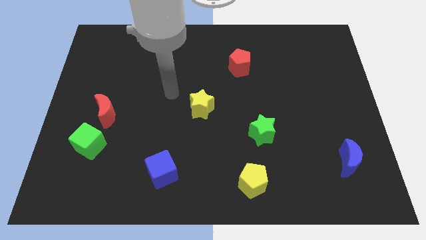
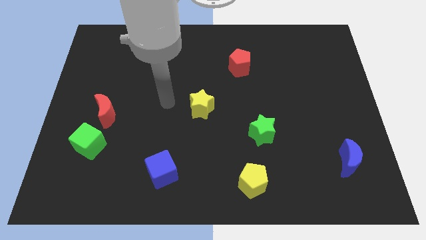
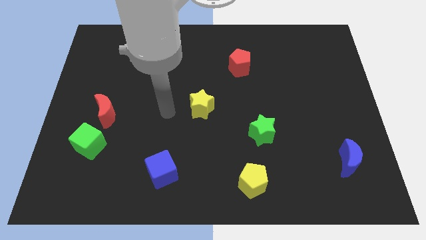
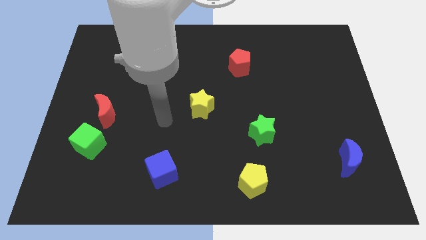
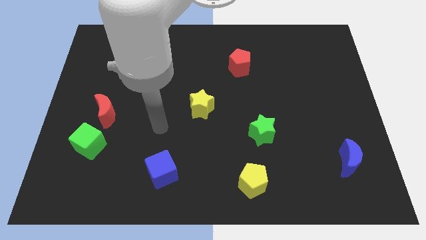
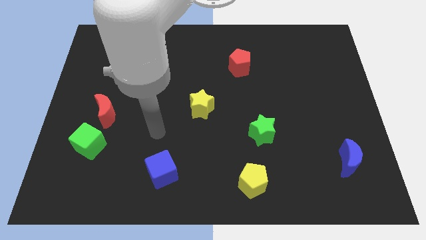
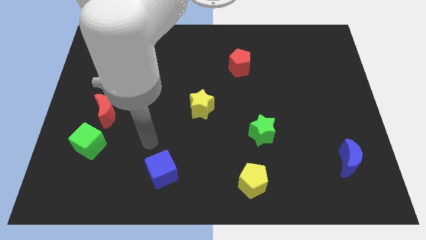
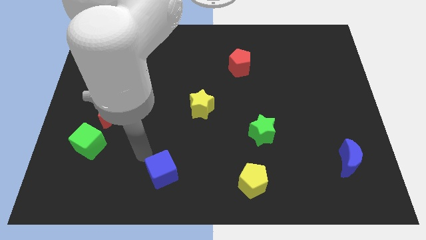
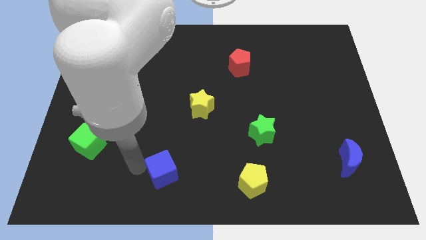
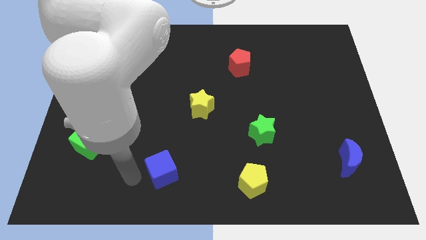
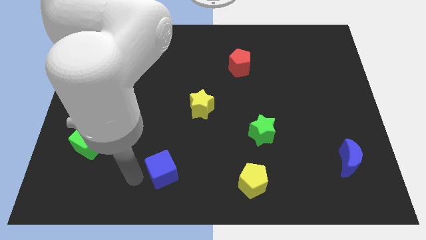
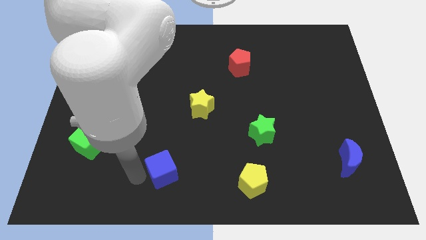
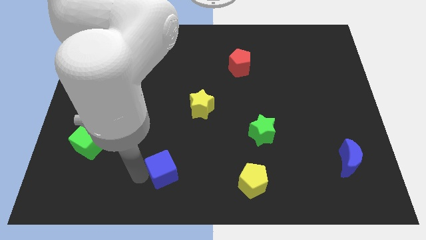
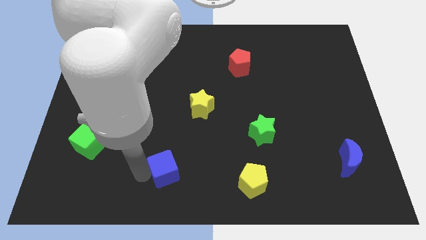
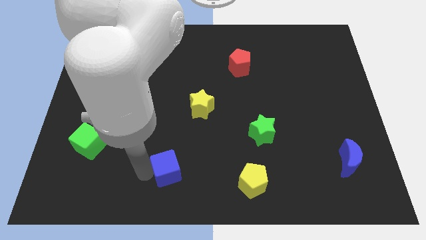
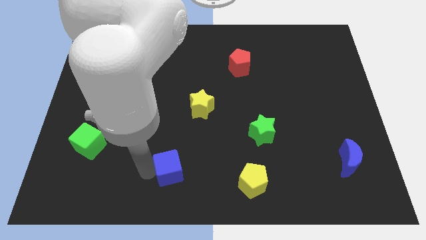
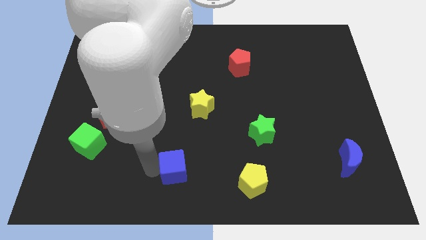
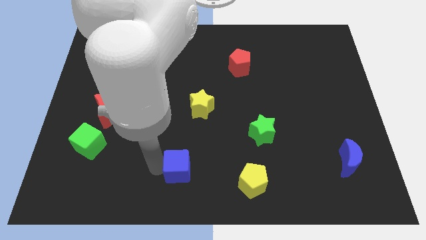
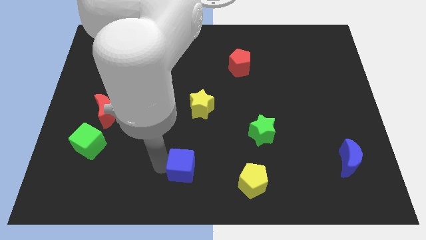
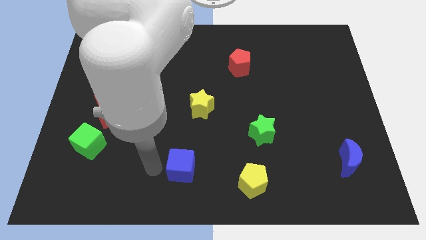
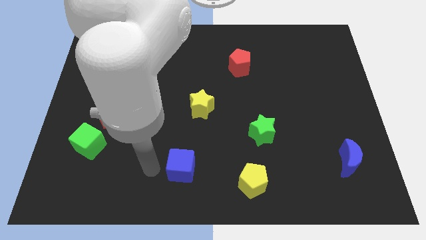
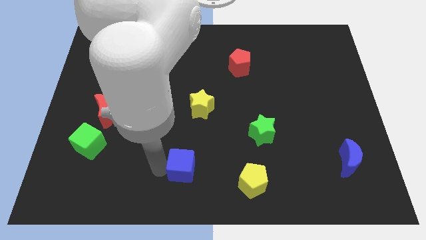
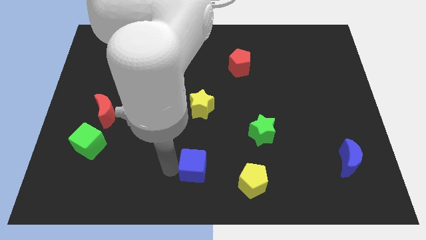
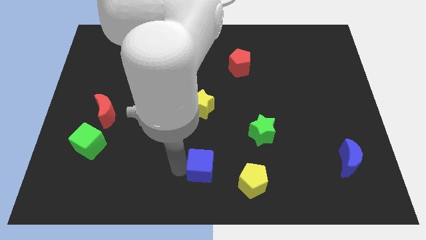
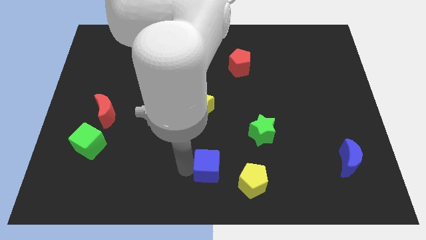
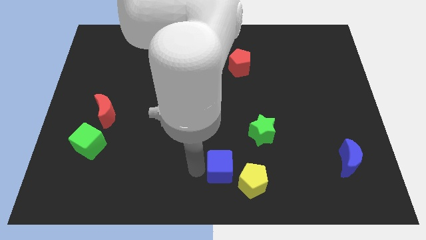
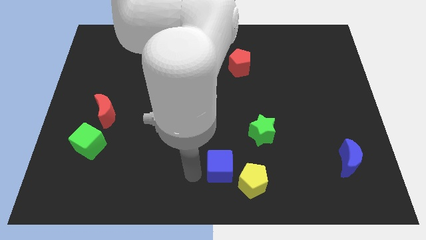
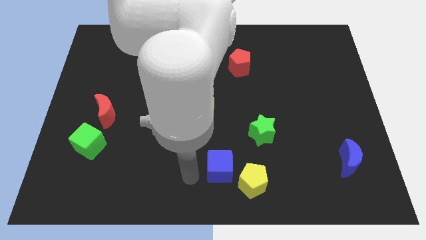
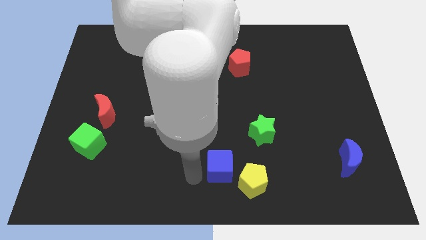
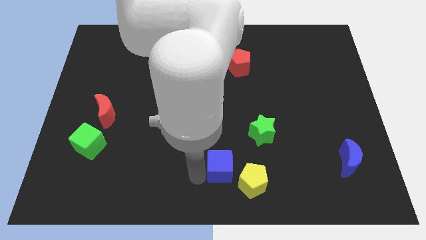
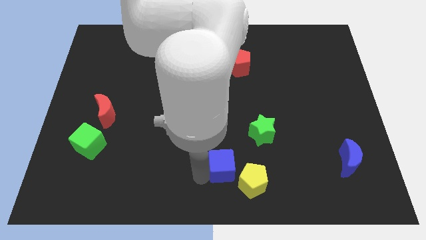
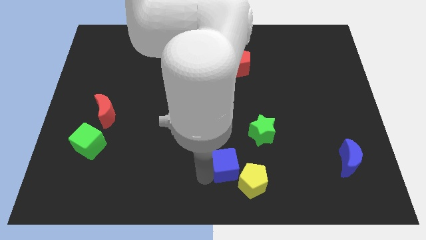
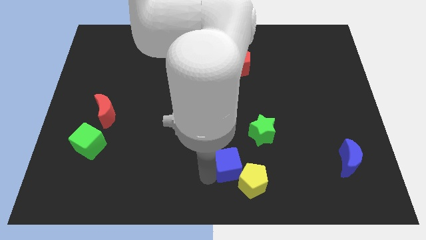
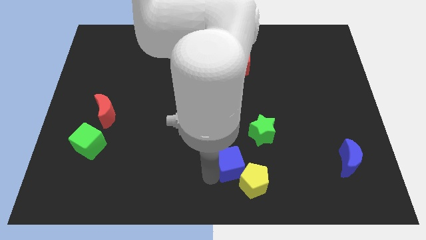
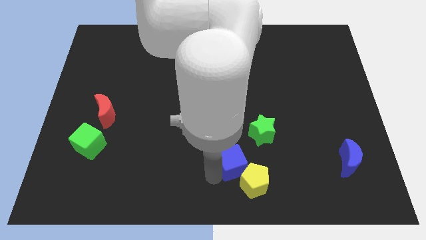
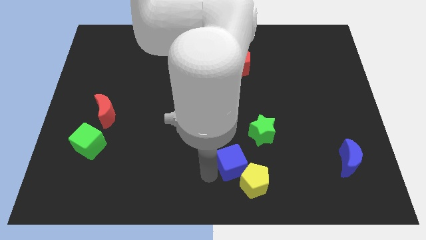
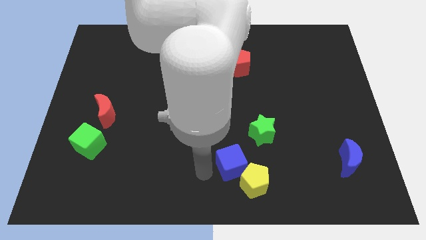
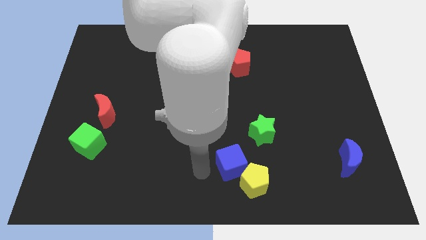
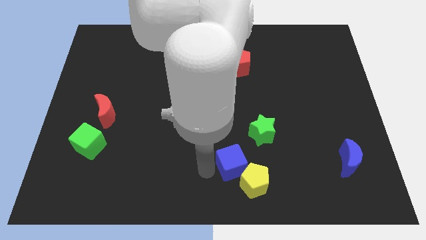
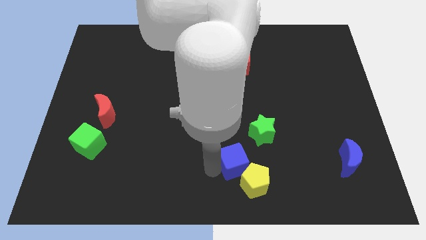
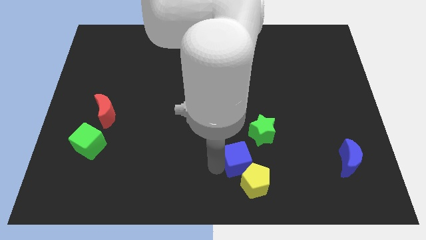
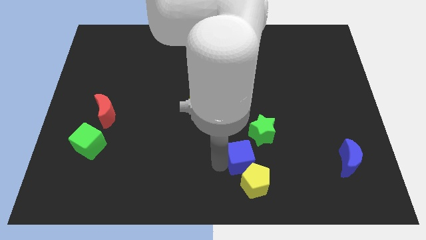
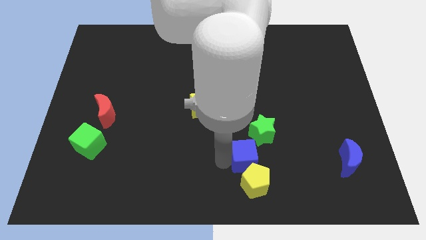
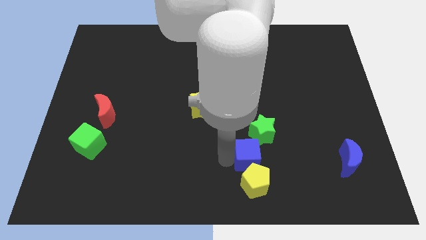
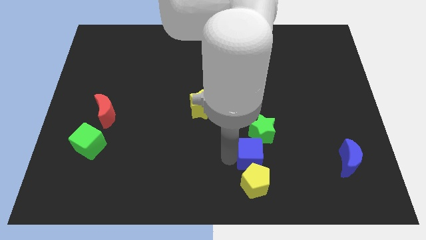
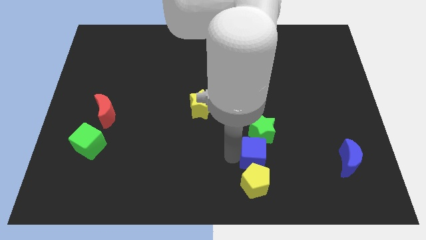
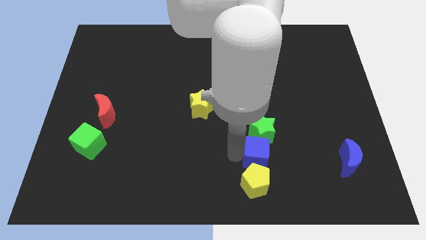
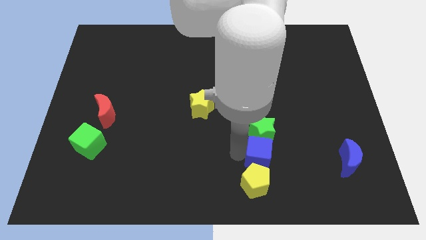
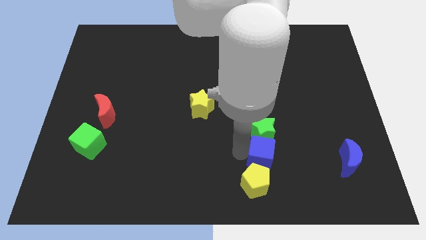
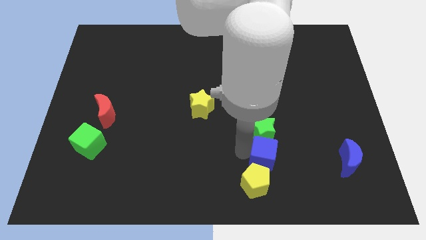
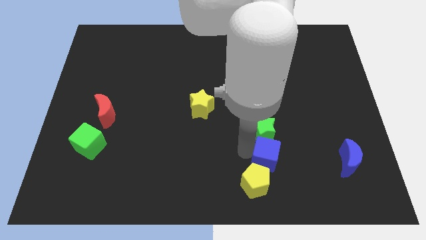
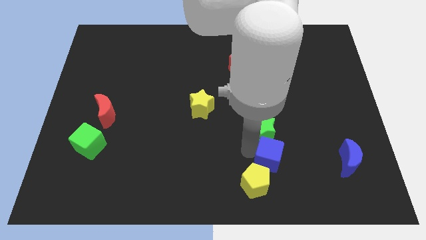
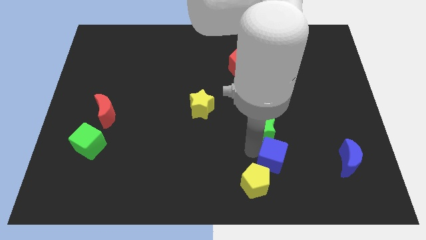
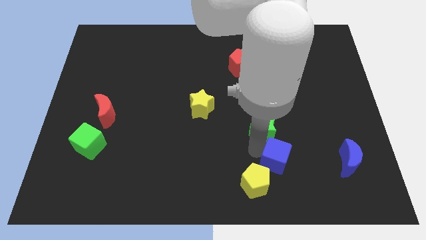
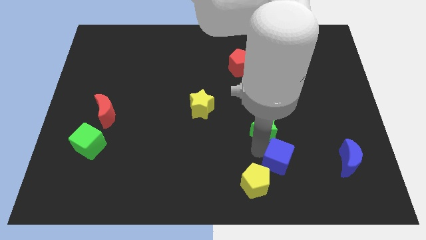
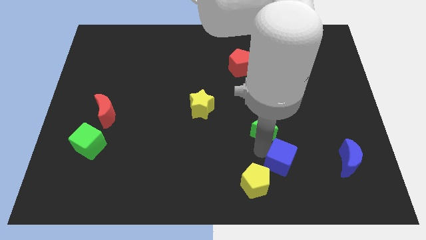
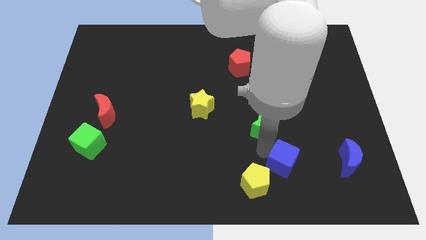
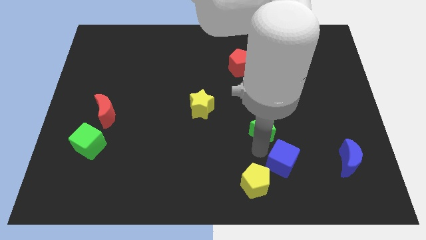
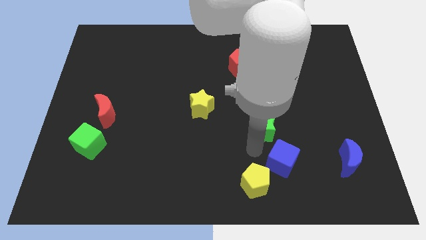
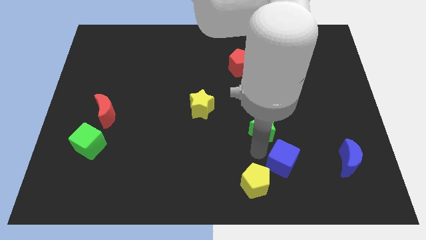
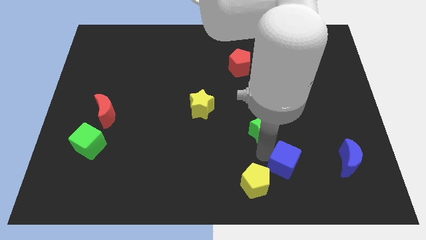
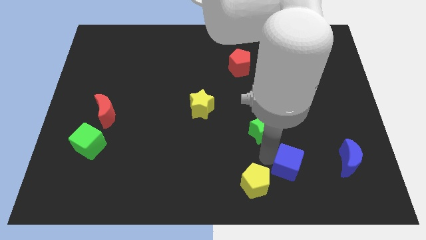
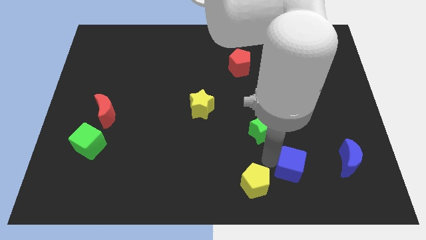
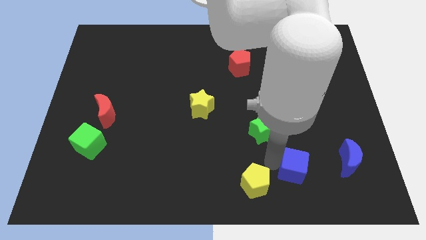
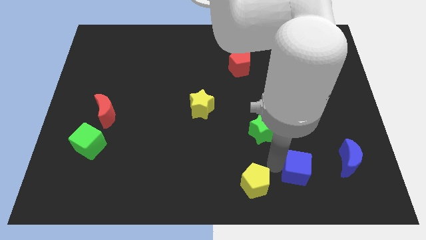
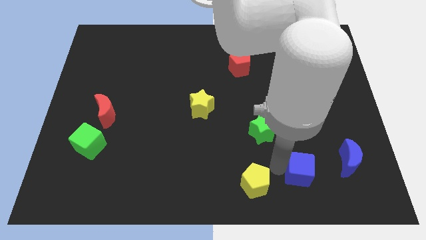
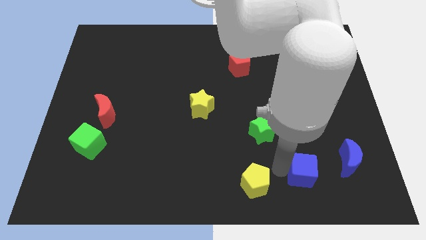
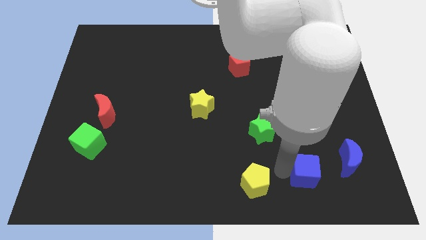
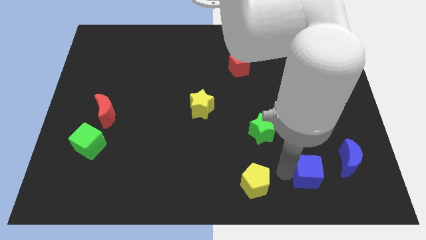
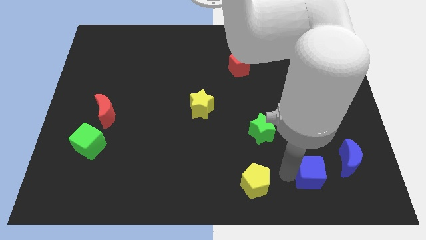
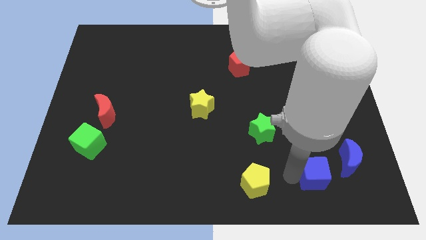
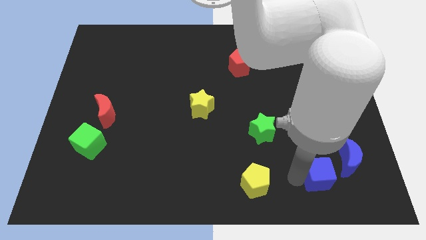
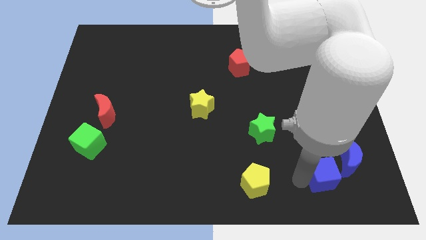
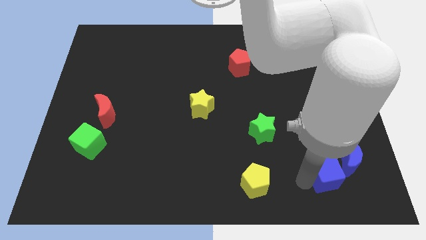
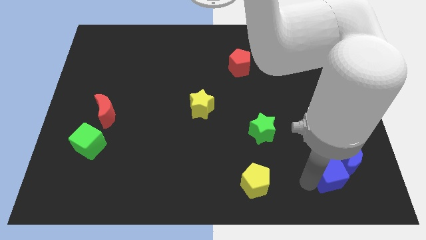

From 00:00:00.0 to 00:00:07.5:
move the blue cube towards the blue moon
